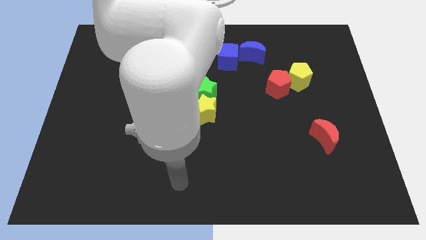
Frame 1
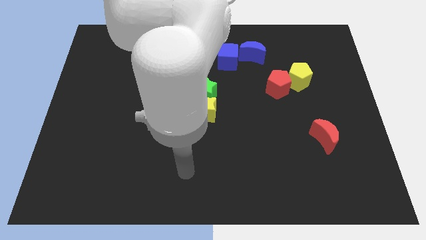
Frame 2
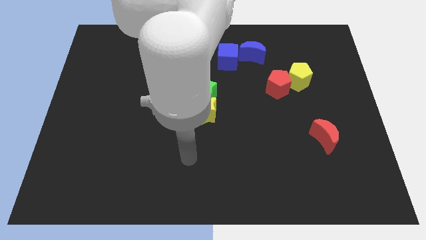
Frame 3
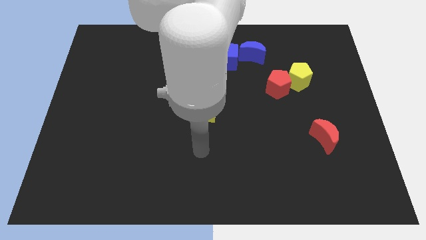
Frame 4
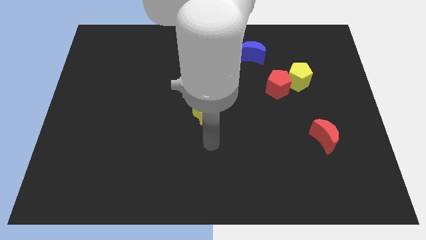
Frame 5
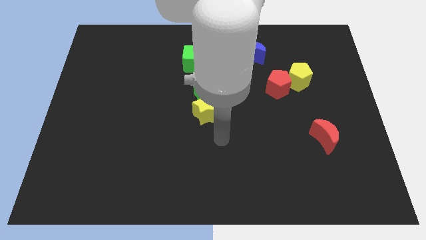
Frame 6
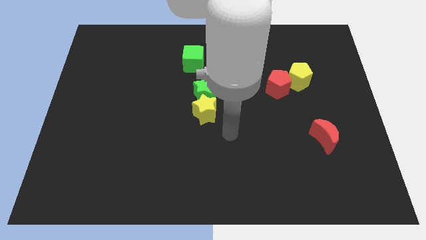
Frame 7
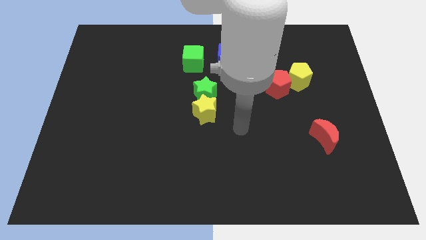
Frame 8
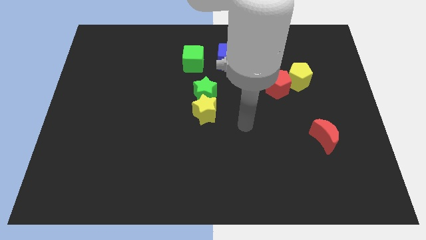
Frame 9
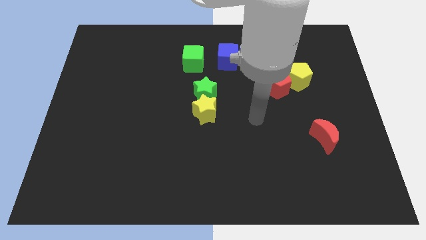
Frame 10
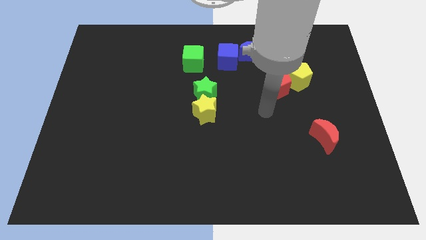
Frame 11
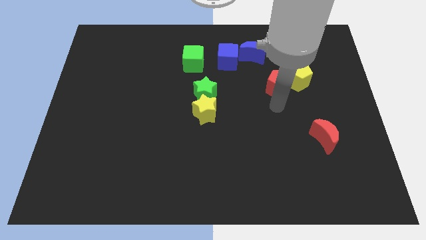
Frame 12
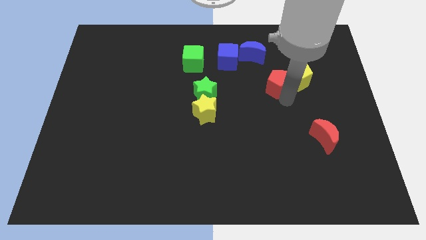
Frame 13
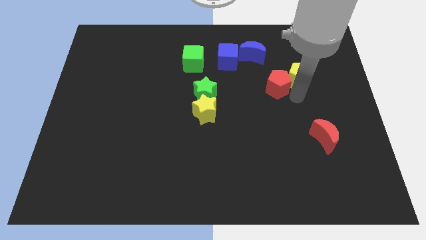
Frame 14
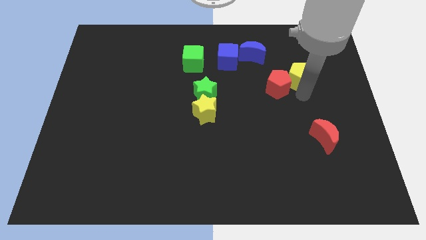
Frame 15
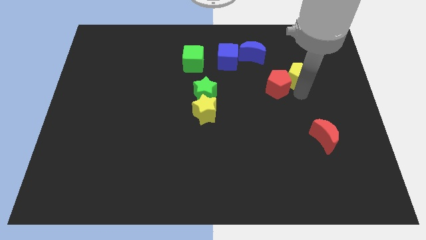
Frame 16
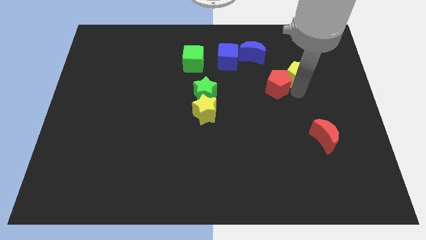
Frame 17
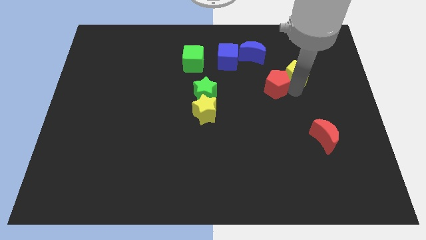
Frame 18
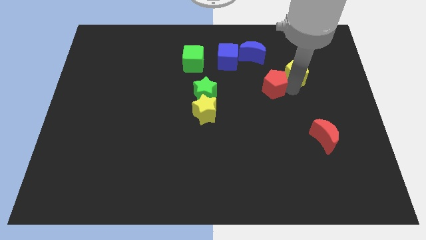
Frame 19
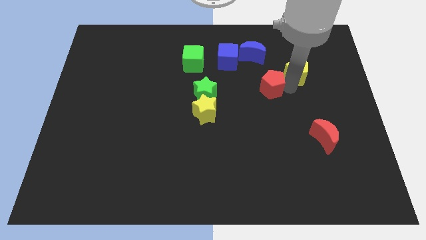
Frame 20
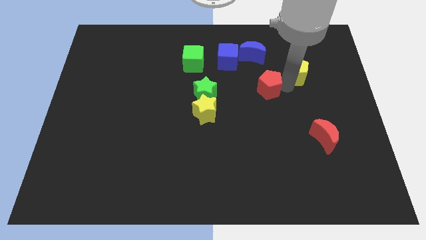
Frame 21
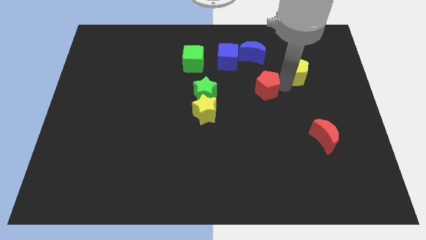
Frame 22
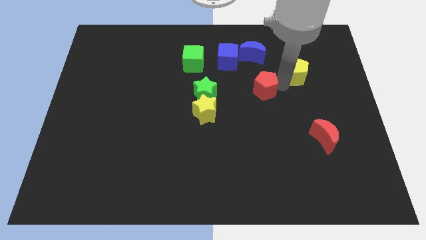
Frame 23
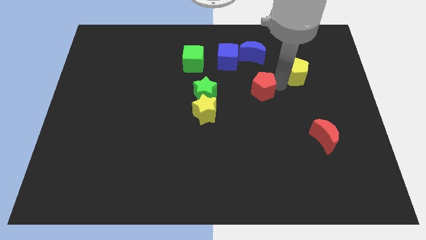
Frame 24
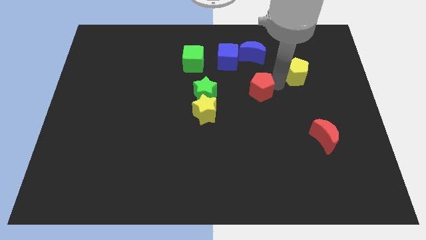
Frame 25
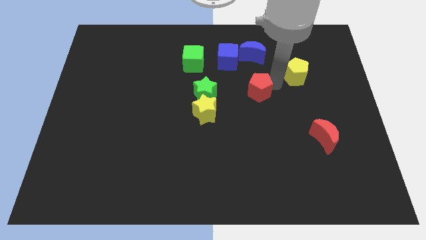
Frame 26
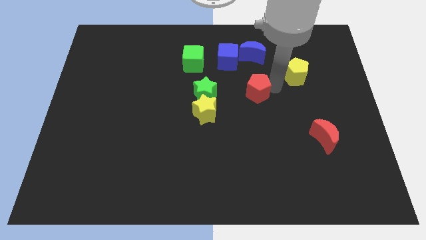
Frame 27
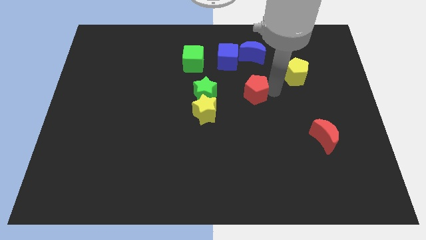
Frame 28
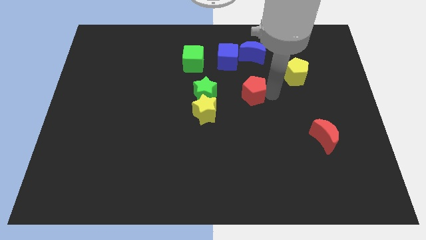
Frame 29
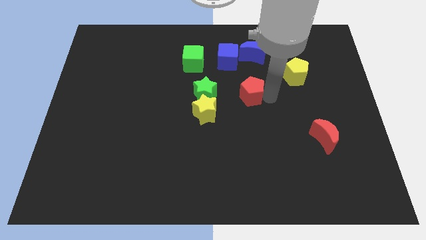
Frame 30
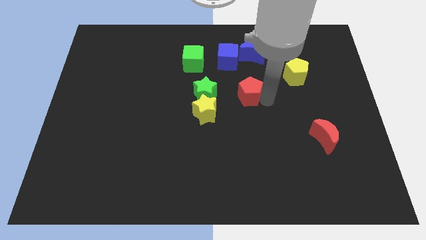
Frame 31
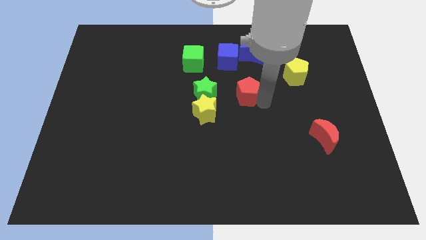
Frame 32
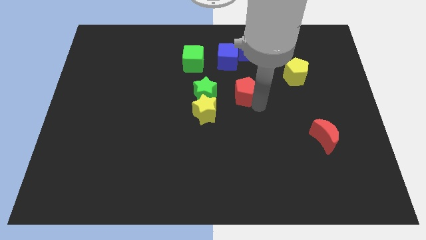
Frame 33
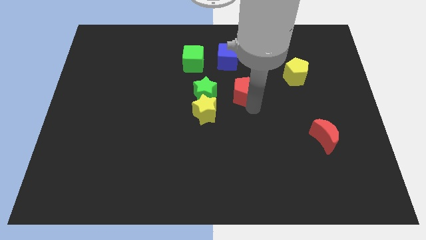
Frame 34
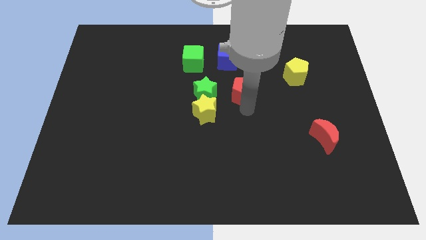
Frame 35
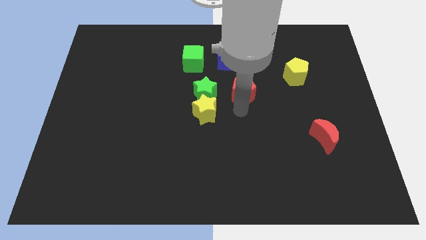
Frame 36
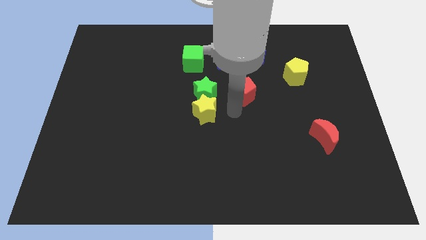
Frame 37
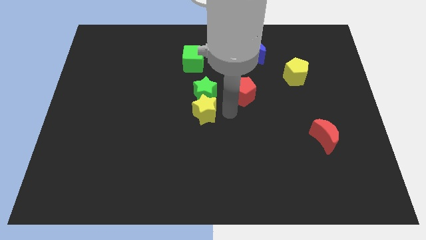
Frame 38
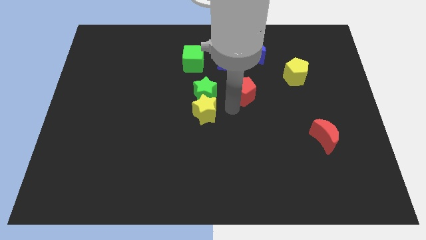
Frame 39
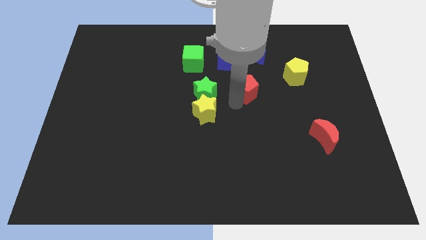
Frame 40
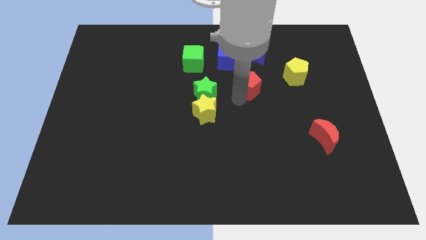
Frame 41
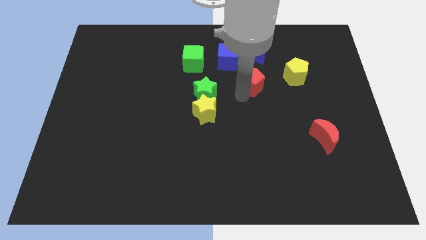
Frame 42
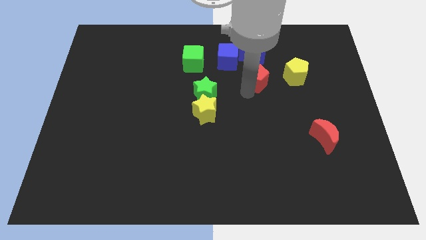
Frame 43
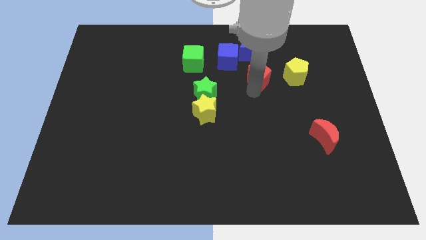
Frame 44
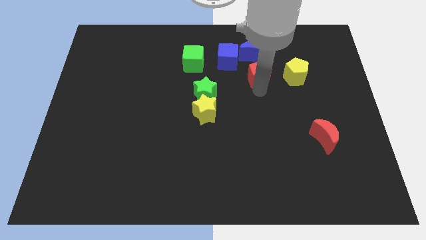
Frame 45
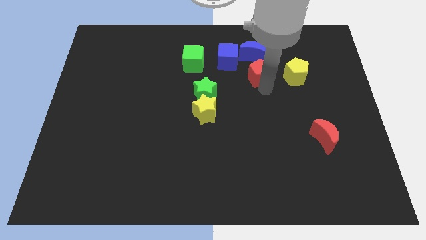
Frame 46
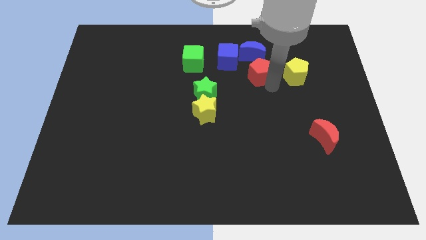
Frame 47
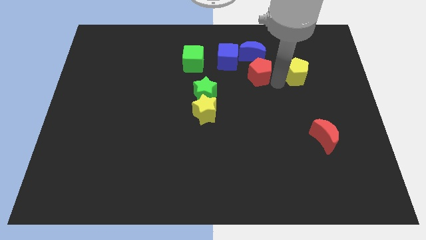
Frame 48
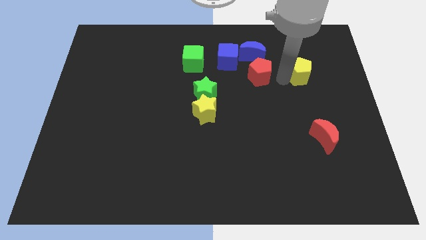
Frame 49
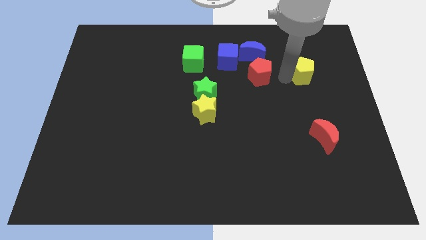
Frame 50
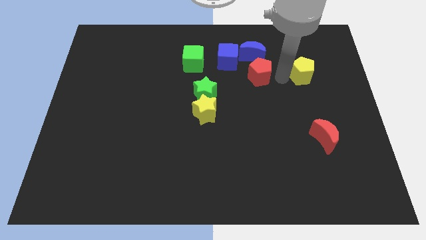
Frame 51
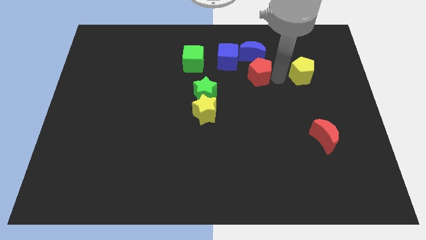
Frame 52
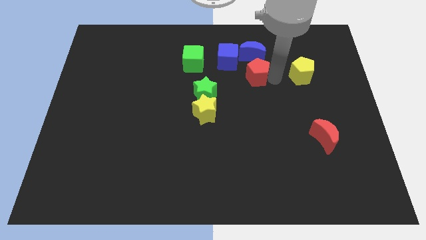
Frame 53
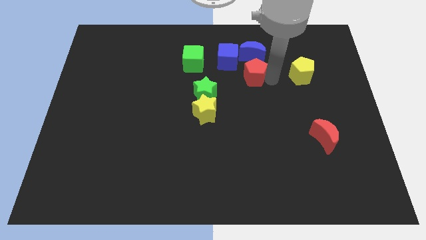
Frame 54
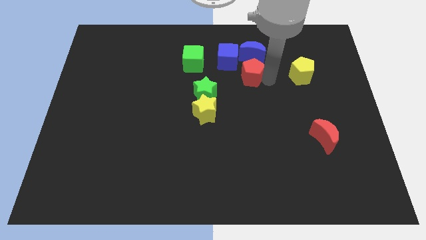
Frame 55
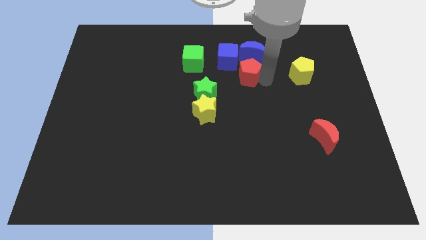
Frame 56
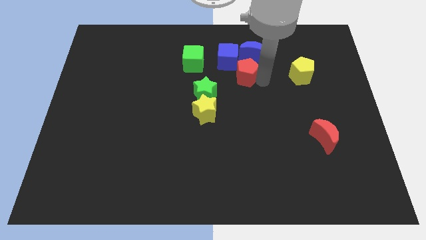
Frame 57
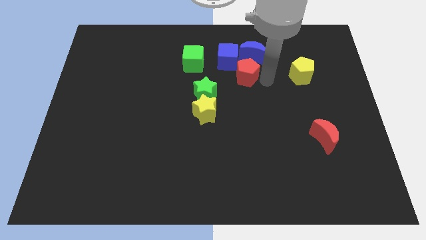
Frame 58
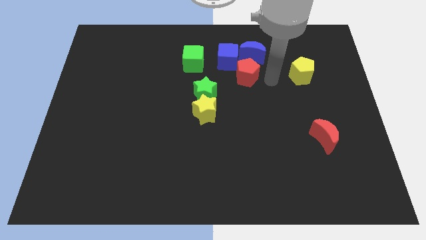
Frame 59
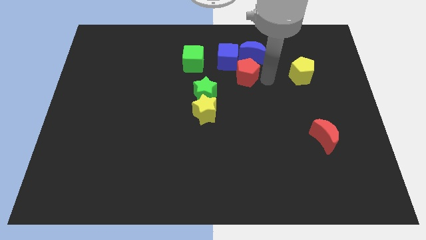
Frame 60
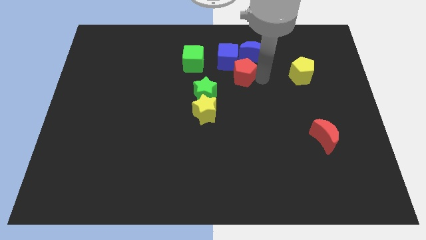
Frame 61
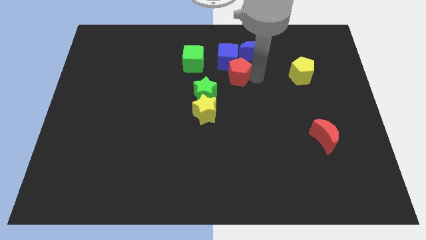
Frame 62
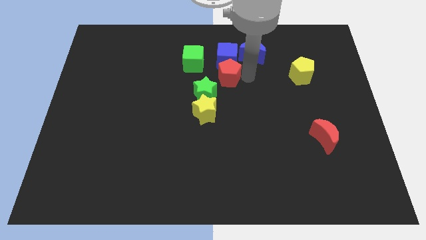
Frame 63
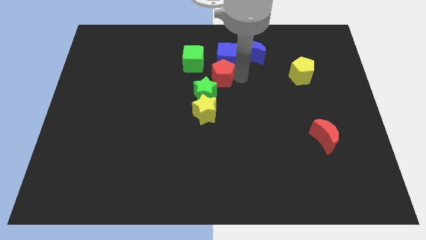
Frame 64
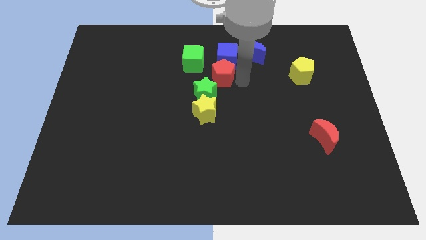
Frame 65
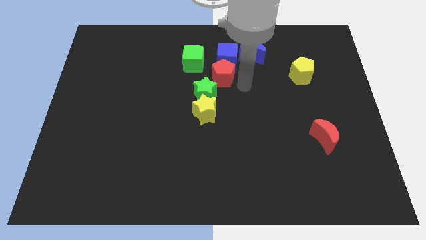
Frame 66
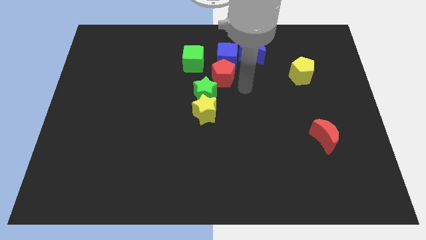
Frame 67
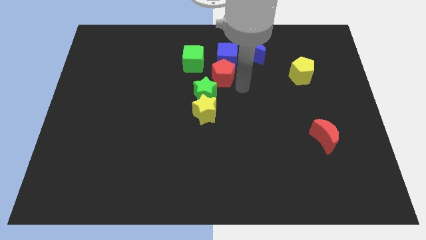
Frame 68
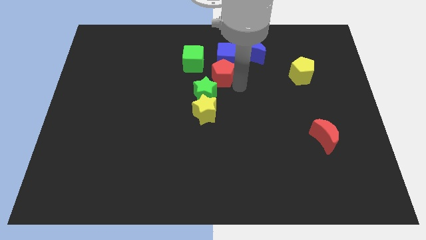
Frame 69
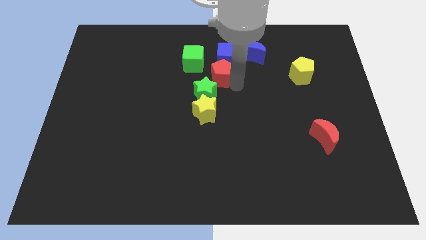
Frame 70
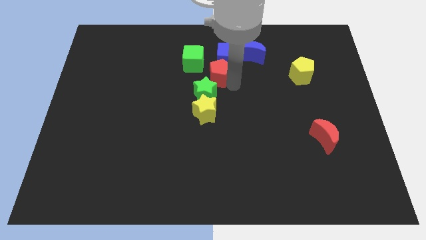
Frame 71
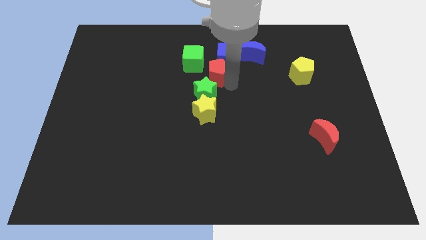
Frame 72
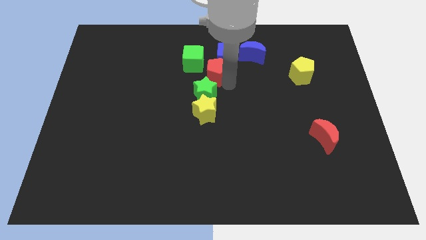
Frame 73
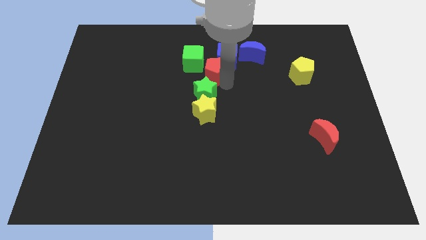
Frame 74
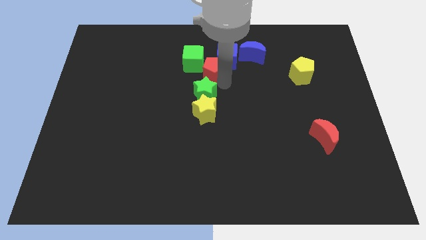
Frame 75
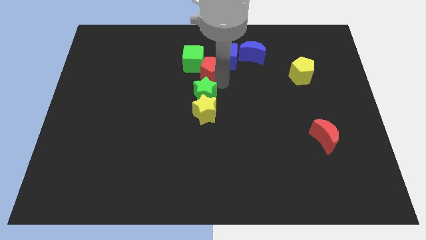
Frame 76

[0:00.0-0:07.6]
put the red pentagon to the green cube
